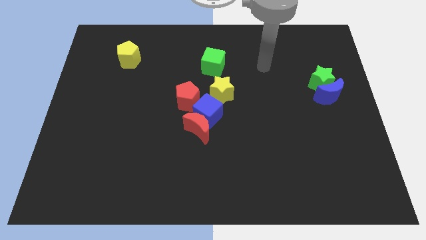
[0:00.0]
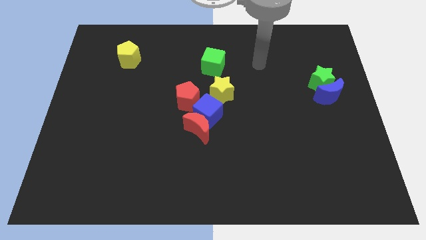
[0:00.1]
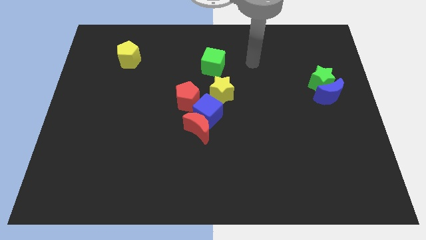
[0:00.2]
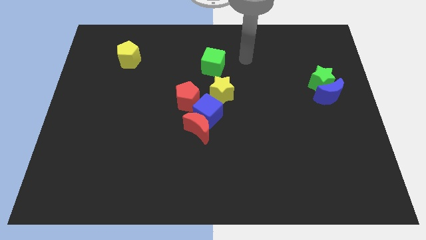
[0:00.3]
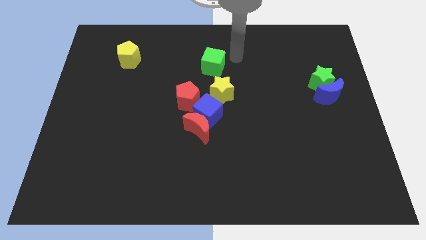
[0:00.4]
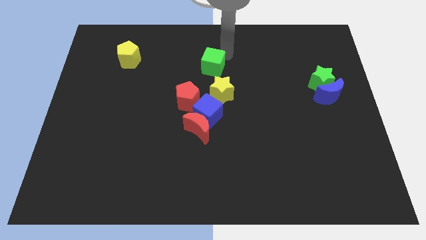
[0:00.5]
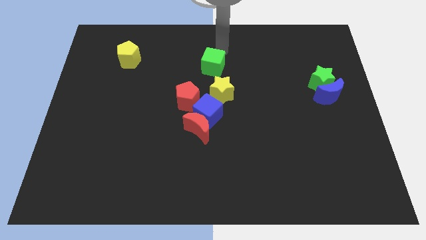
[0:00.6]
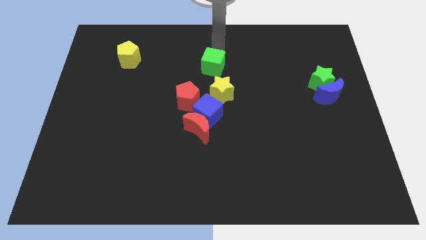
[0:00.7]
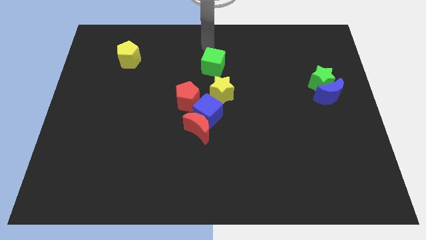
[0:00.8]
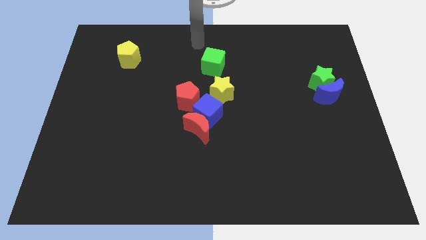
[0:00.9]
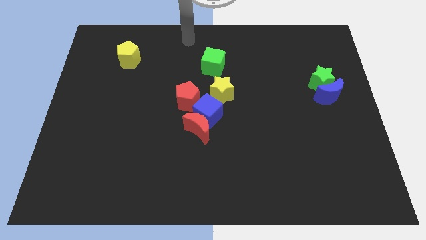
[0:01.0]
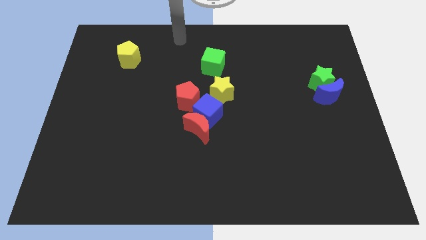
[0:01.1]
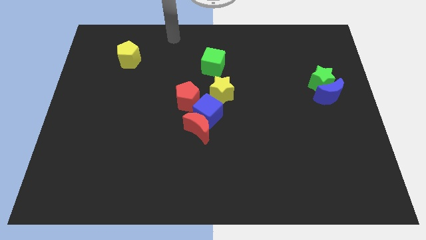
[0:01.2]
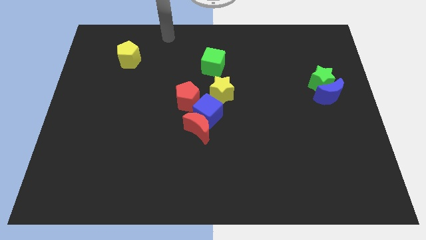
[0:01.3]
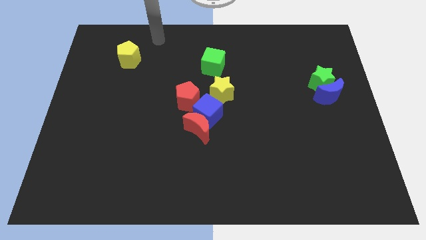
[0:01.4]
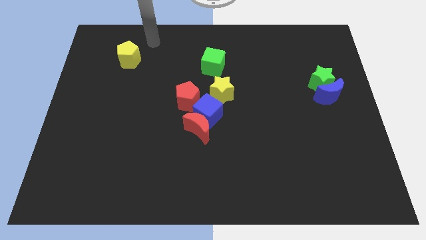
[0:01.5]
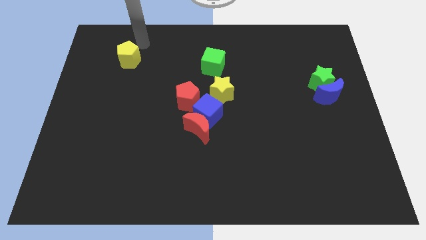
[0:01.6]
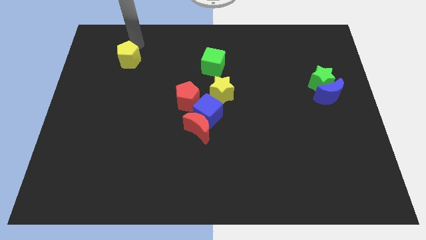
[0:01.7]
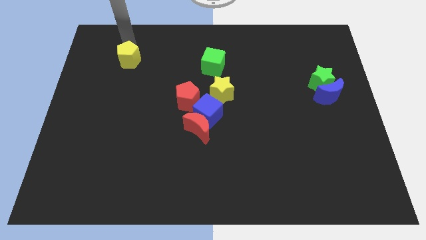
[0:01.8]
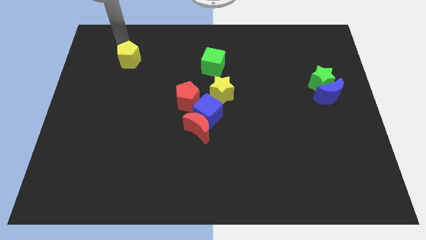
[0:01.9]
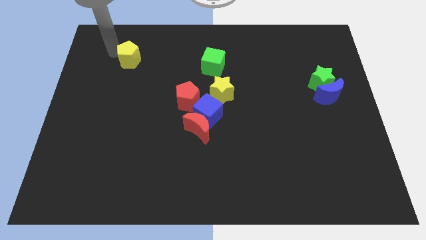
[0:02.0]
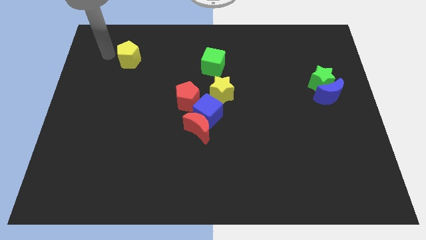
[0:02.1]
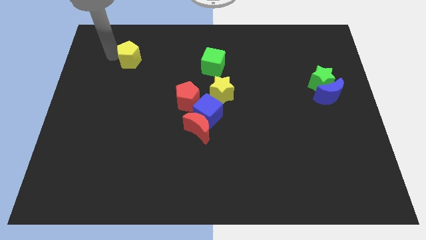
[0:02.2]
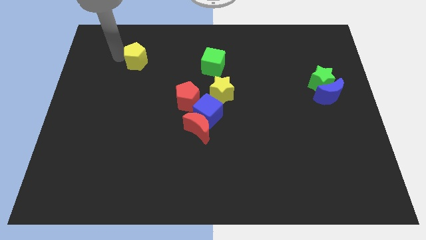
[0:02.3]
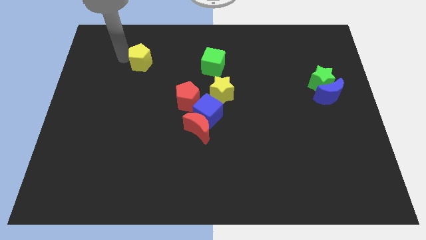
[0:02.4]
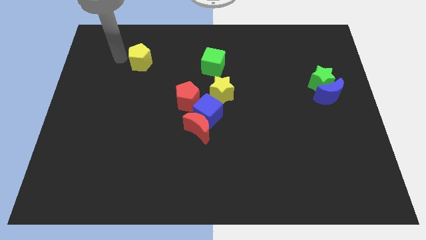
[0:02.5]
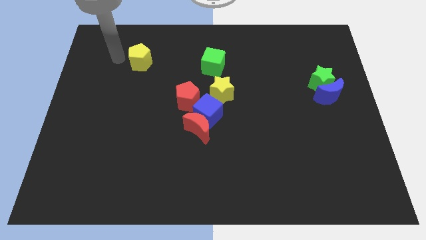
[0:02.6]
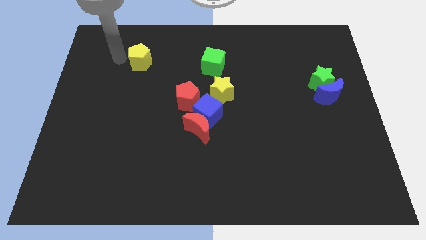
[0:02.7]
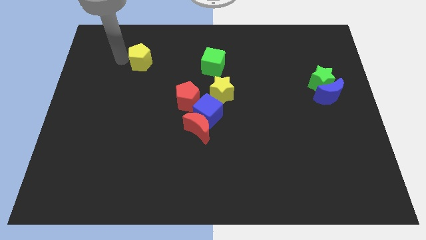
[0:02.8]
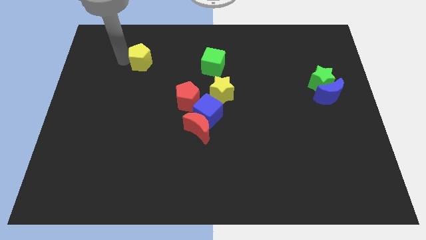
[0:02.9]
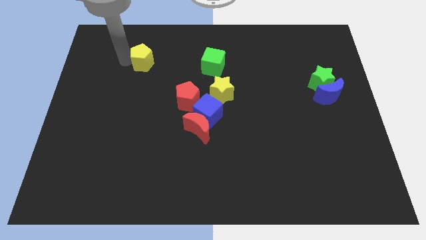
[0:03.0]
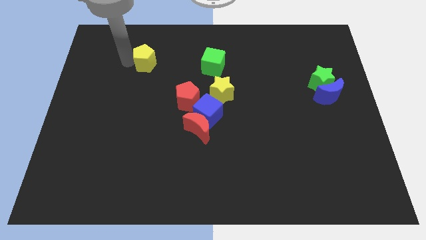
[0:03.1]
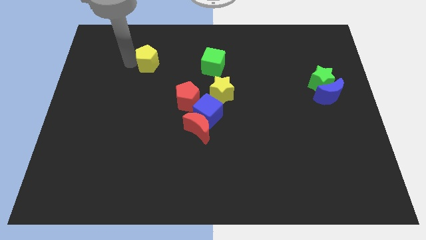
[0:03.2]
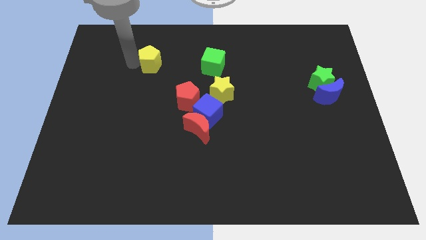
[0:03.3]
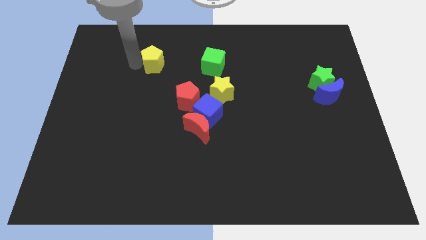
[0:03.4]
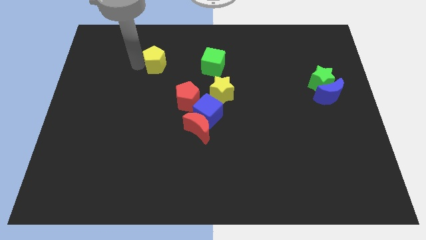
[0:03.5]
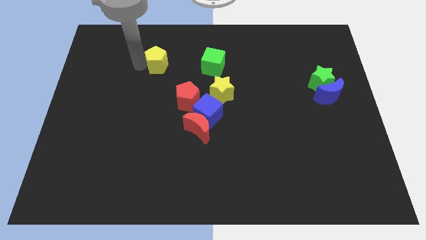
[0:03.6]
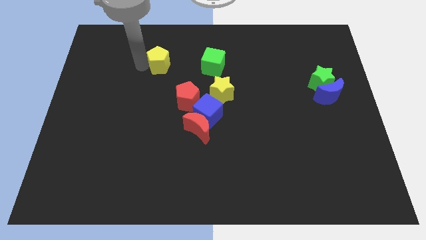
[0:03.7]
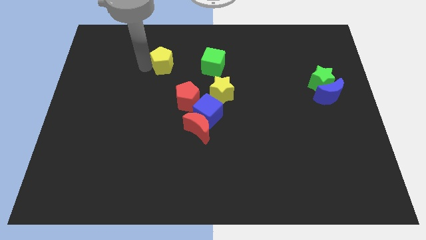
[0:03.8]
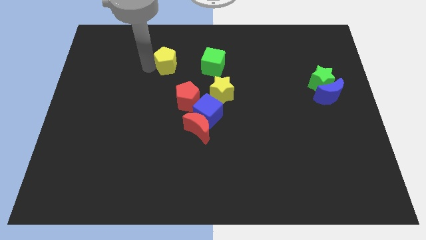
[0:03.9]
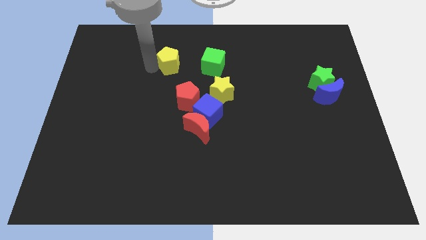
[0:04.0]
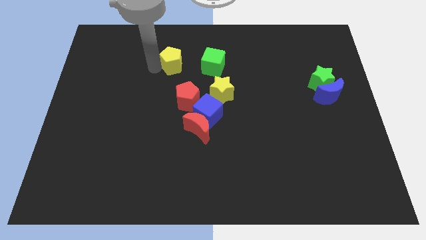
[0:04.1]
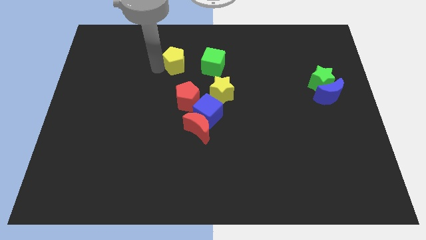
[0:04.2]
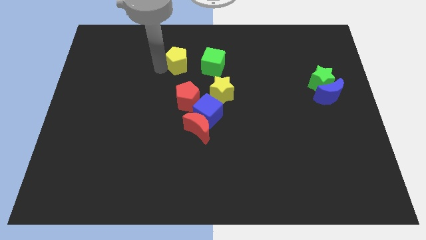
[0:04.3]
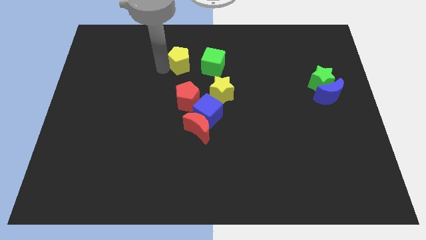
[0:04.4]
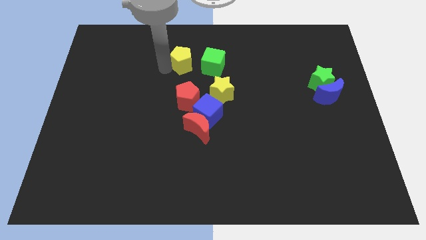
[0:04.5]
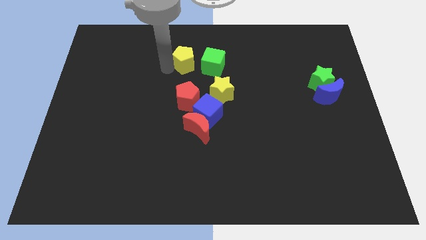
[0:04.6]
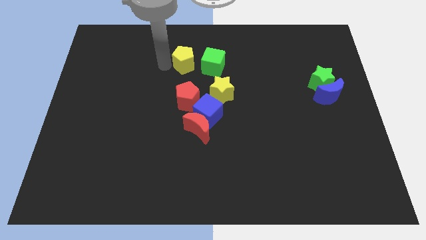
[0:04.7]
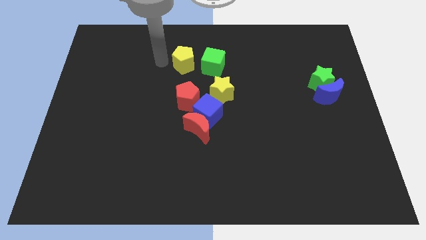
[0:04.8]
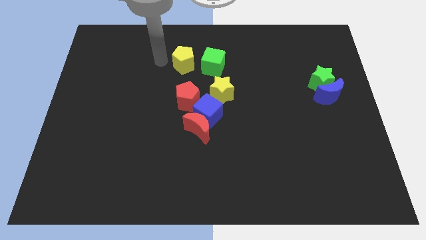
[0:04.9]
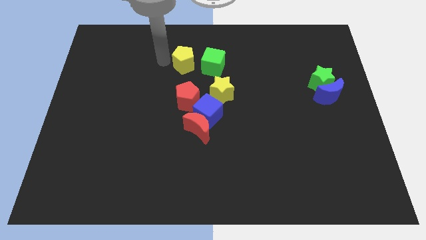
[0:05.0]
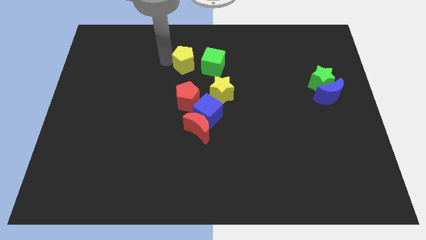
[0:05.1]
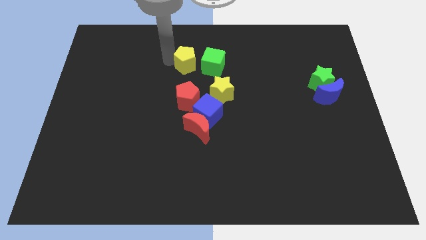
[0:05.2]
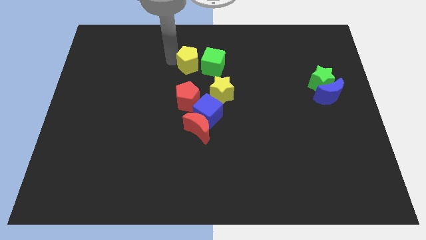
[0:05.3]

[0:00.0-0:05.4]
push the yellow pentagon next to the green cube

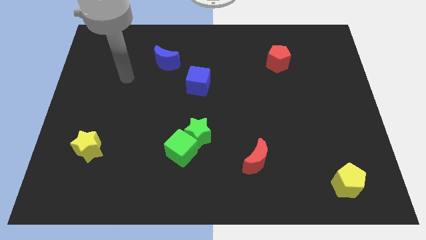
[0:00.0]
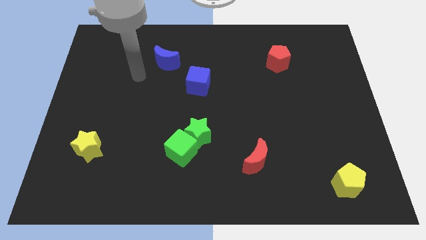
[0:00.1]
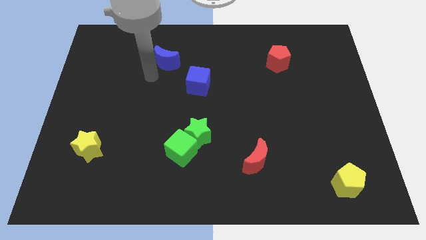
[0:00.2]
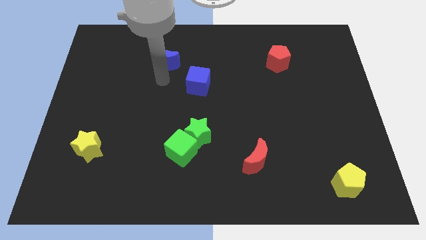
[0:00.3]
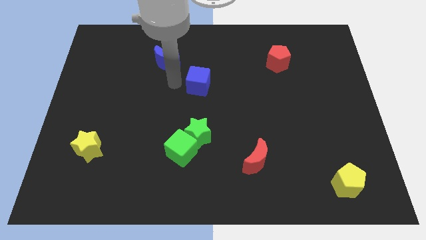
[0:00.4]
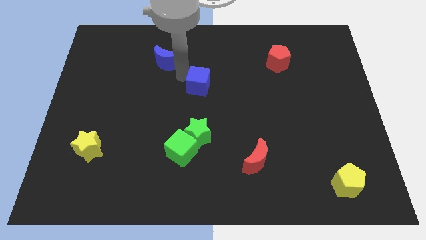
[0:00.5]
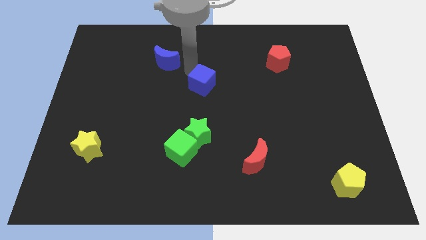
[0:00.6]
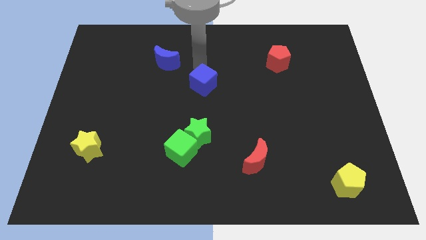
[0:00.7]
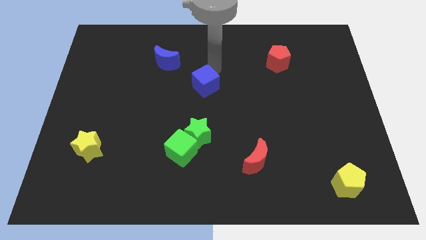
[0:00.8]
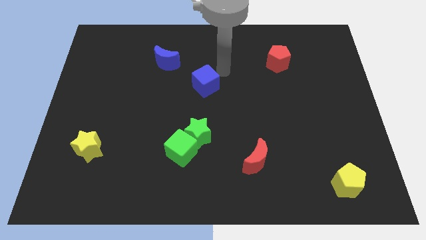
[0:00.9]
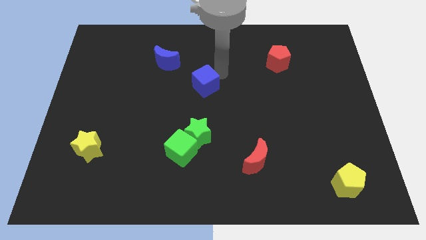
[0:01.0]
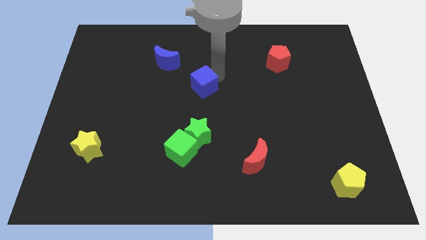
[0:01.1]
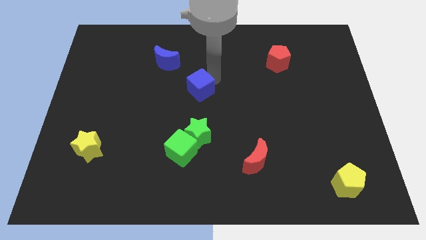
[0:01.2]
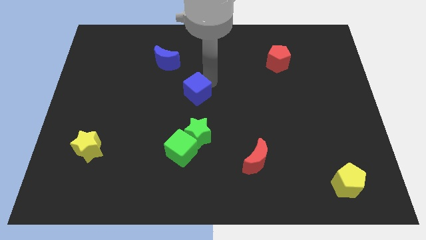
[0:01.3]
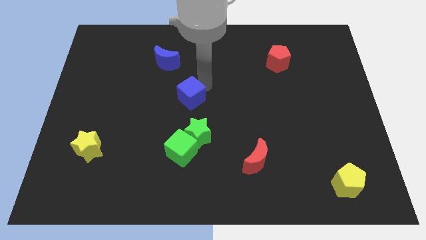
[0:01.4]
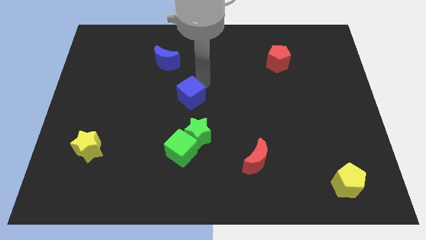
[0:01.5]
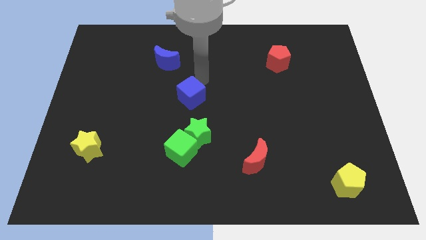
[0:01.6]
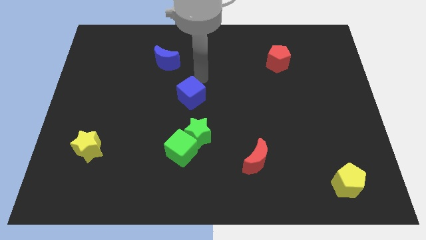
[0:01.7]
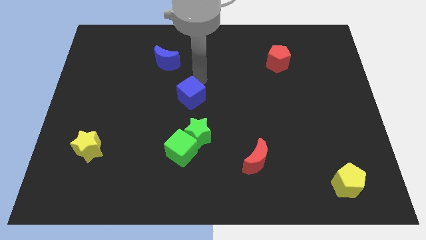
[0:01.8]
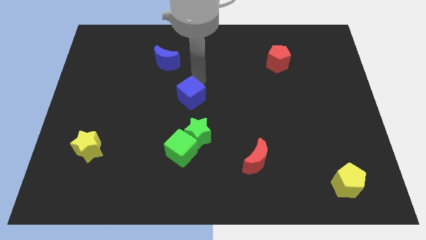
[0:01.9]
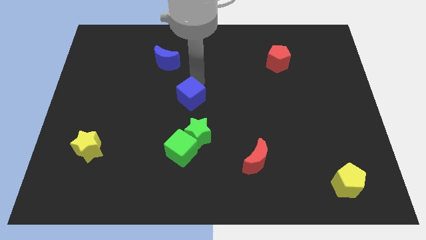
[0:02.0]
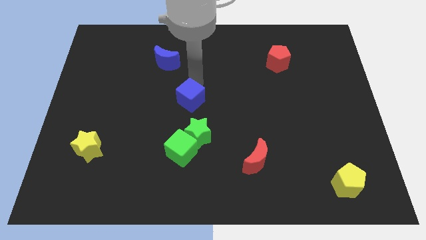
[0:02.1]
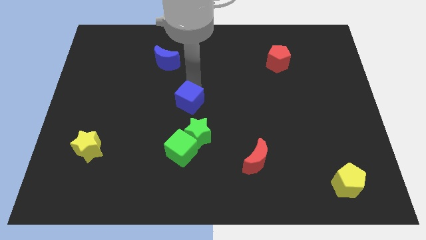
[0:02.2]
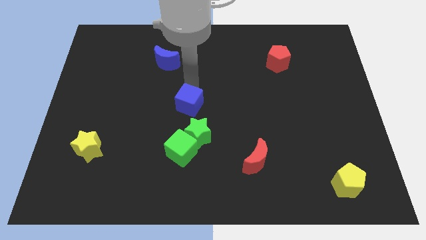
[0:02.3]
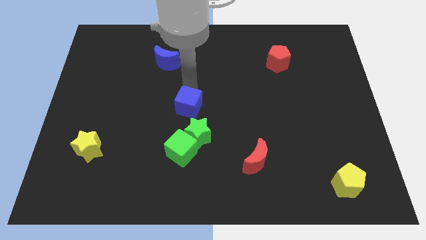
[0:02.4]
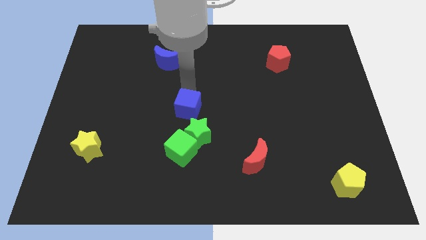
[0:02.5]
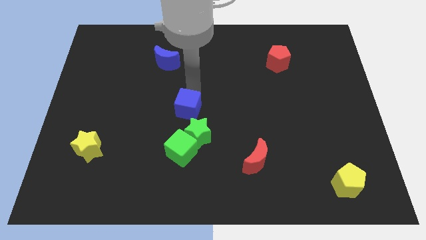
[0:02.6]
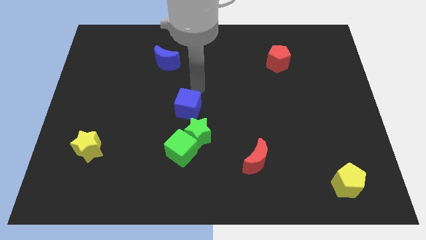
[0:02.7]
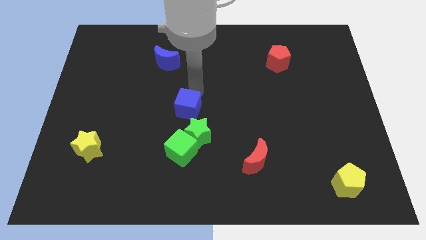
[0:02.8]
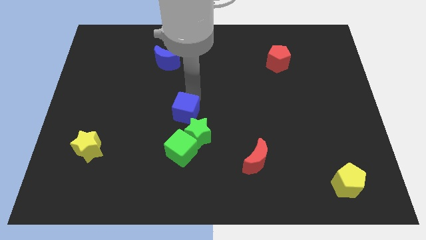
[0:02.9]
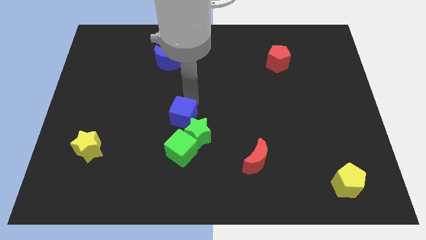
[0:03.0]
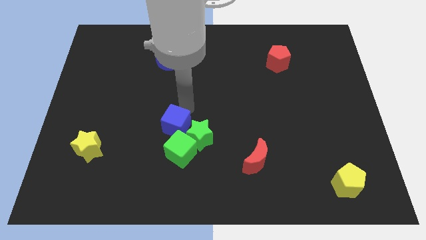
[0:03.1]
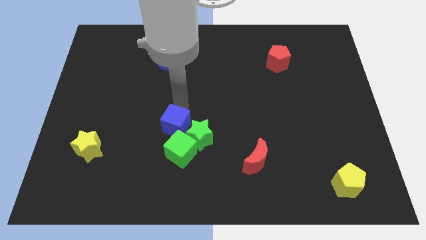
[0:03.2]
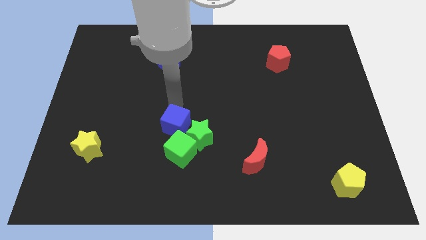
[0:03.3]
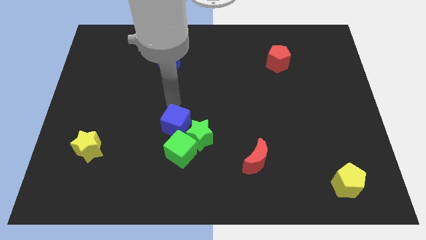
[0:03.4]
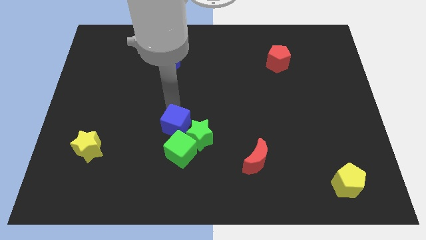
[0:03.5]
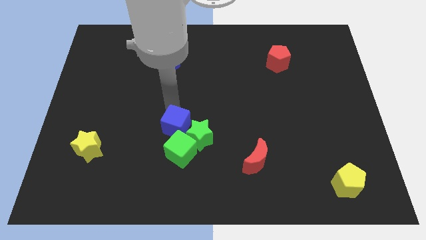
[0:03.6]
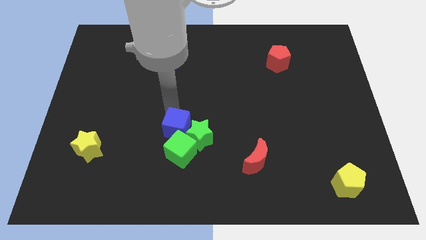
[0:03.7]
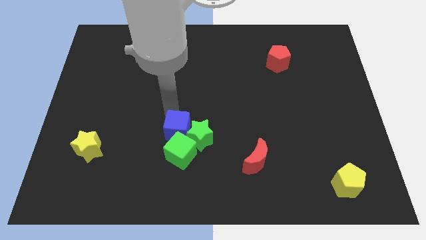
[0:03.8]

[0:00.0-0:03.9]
push the blue cube towards the green cube
